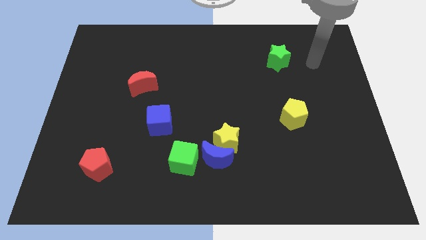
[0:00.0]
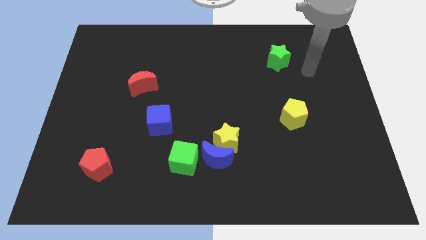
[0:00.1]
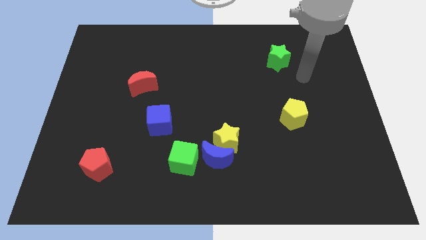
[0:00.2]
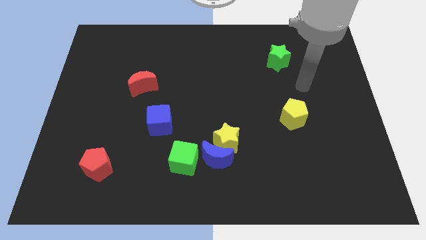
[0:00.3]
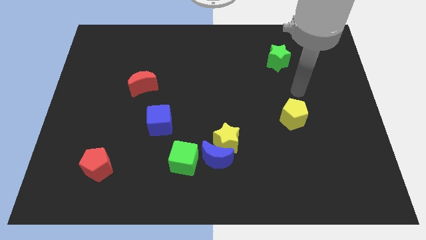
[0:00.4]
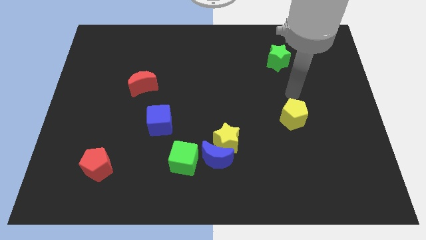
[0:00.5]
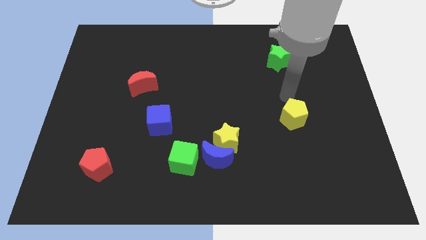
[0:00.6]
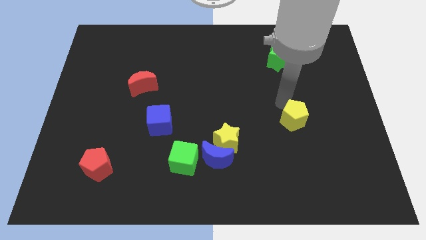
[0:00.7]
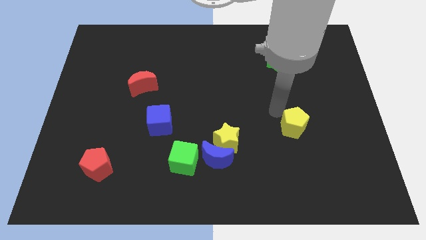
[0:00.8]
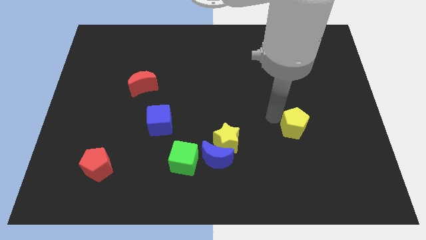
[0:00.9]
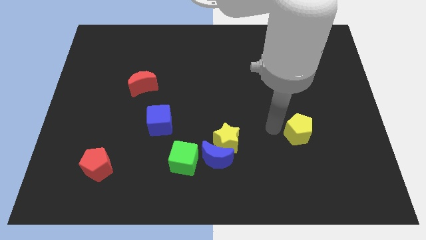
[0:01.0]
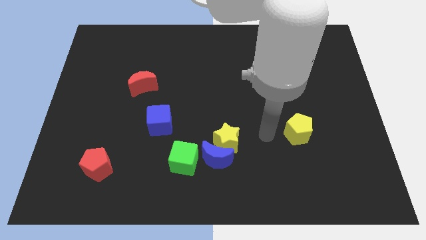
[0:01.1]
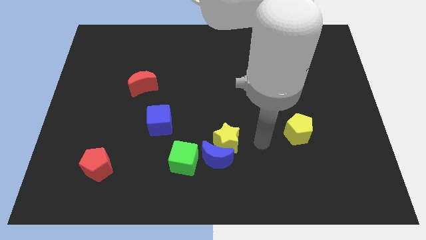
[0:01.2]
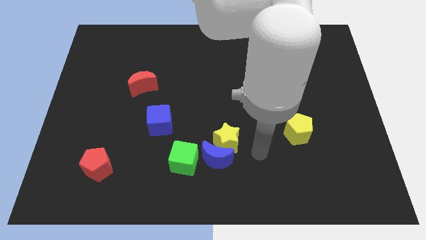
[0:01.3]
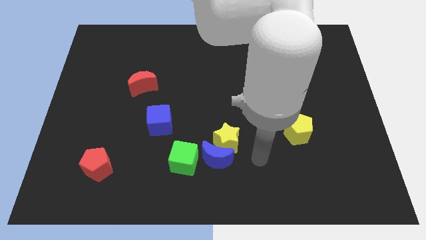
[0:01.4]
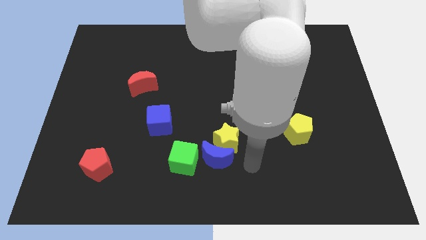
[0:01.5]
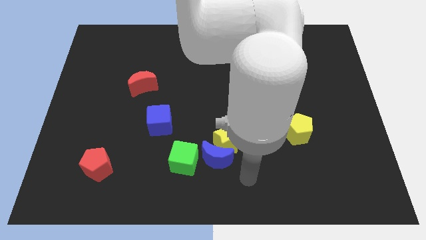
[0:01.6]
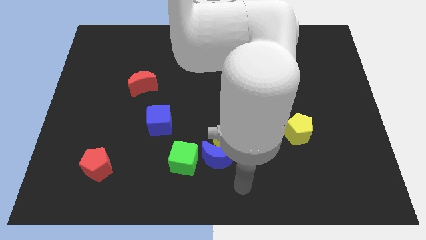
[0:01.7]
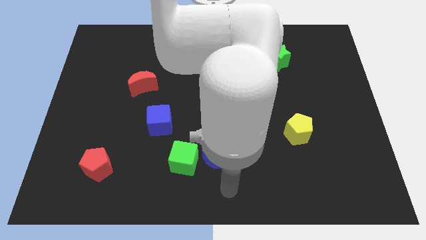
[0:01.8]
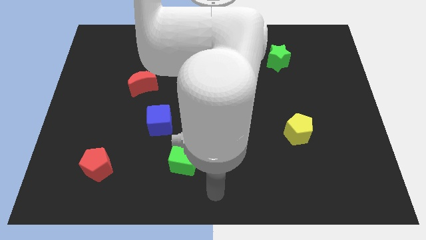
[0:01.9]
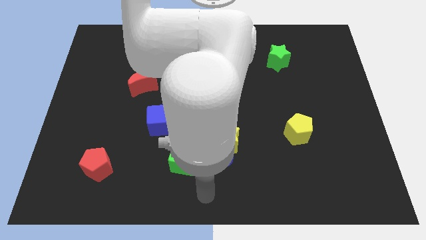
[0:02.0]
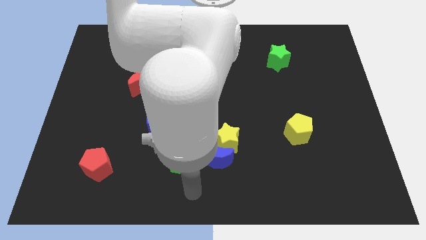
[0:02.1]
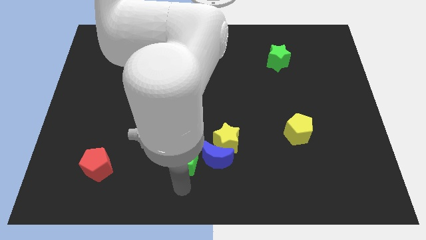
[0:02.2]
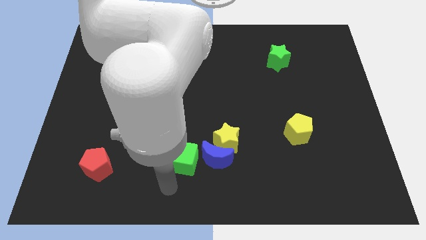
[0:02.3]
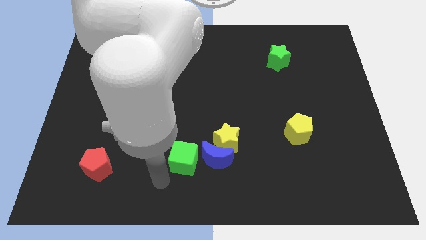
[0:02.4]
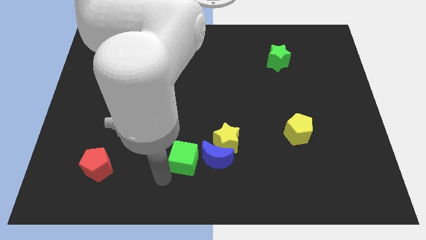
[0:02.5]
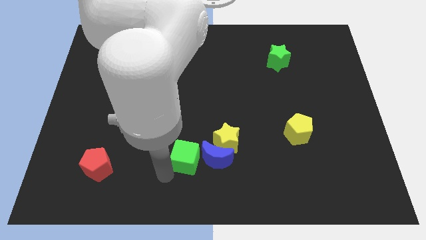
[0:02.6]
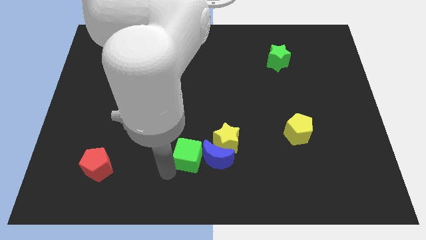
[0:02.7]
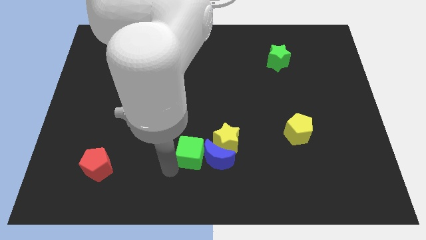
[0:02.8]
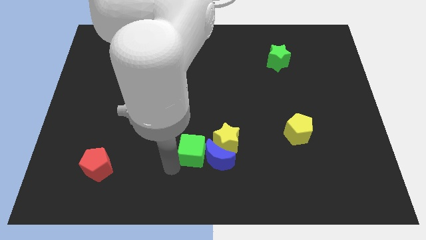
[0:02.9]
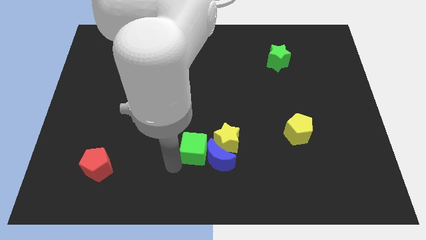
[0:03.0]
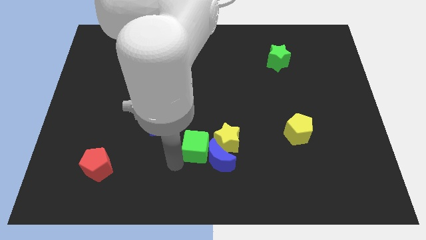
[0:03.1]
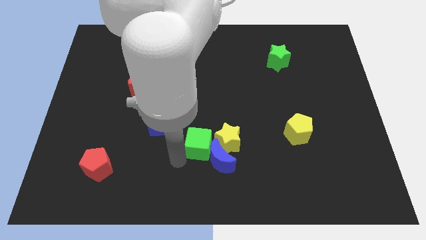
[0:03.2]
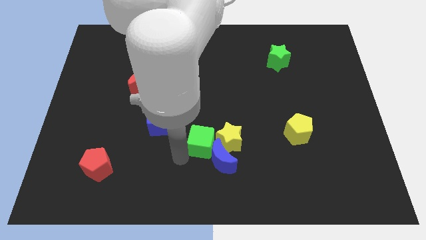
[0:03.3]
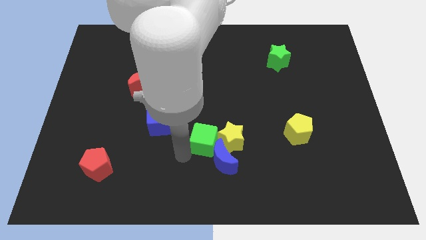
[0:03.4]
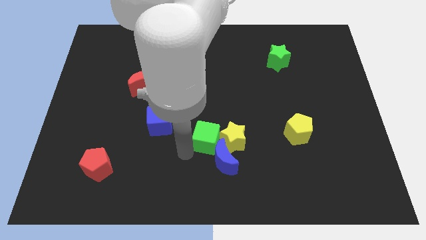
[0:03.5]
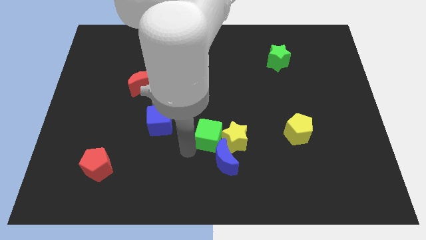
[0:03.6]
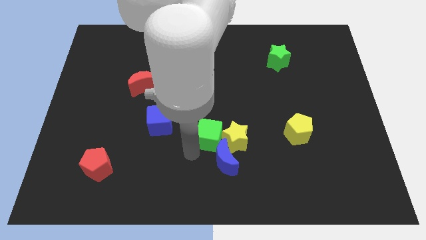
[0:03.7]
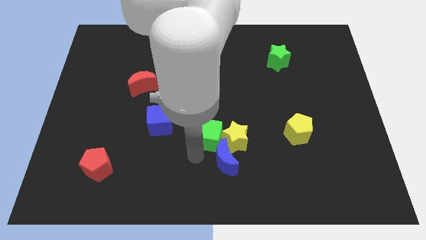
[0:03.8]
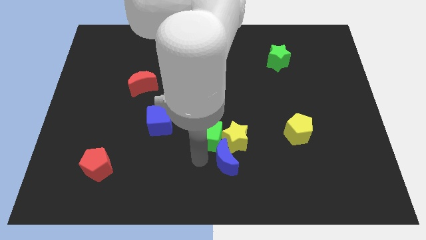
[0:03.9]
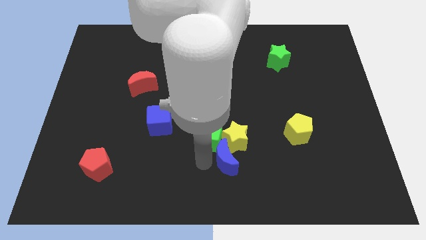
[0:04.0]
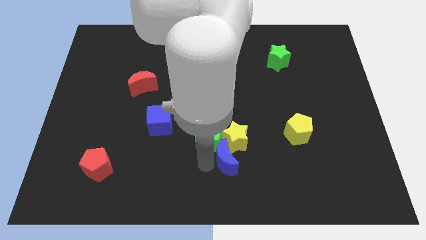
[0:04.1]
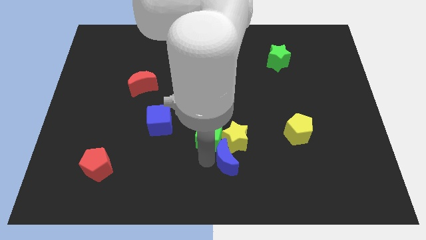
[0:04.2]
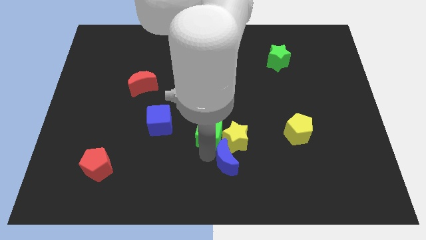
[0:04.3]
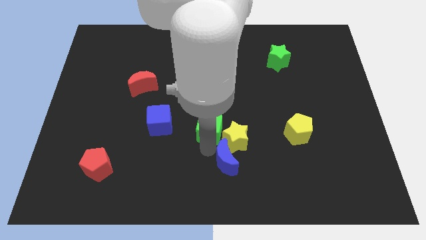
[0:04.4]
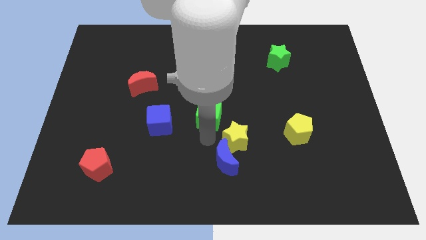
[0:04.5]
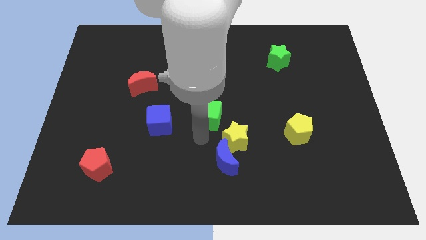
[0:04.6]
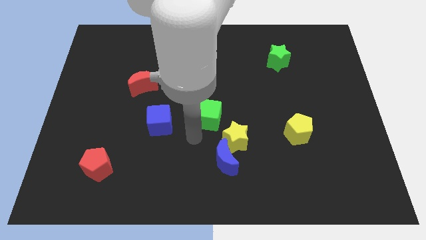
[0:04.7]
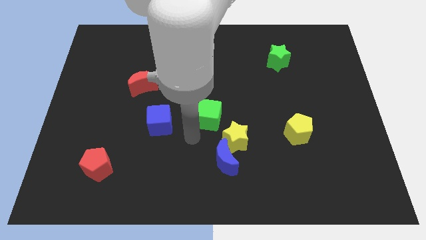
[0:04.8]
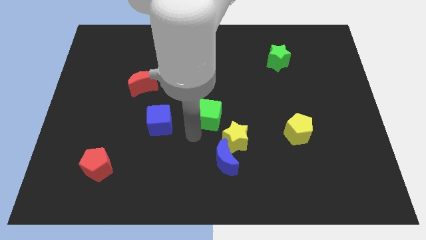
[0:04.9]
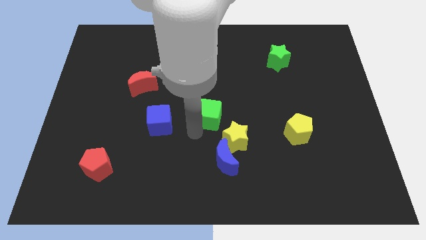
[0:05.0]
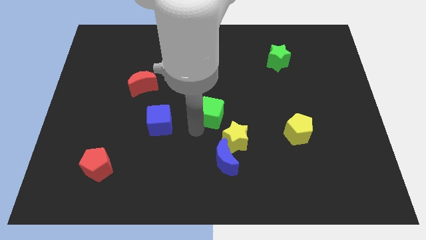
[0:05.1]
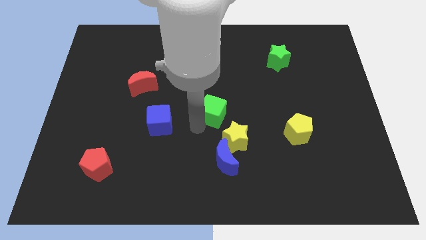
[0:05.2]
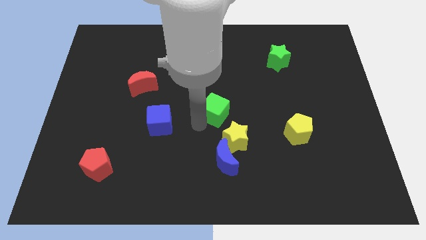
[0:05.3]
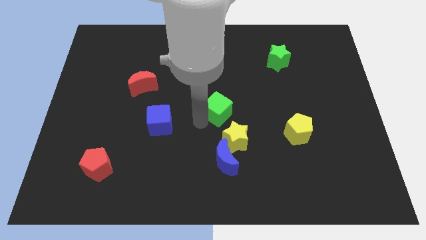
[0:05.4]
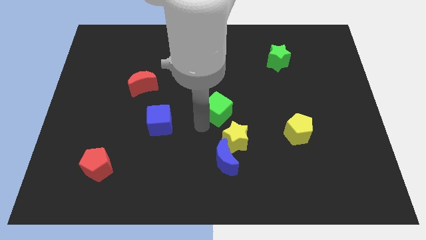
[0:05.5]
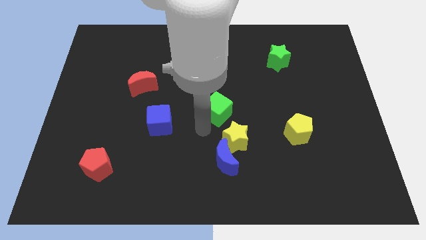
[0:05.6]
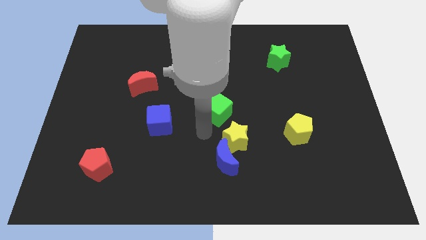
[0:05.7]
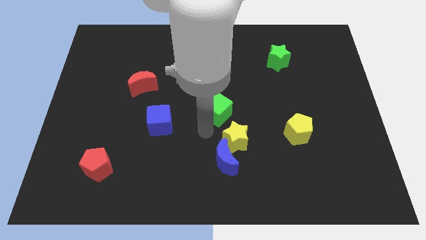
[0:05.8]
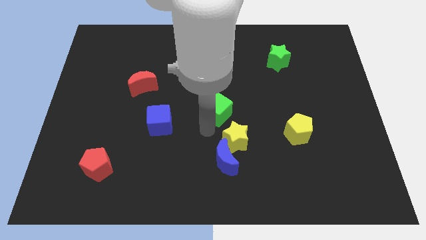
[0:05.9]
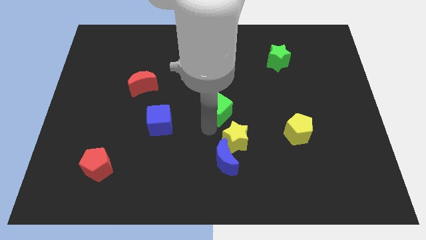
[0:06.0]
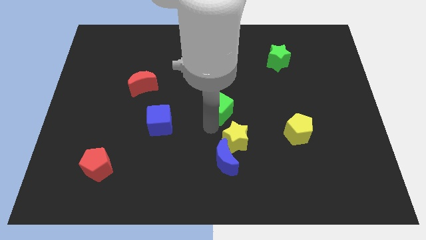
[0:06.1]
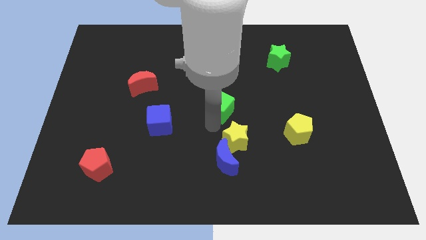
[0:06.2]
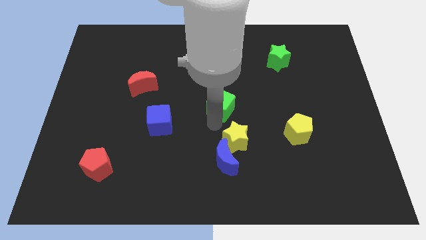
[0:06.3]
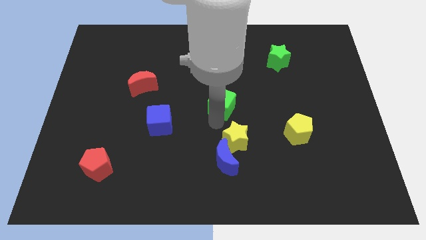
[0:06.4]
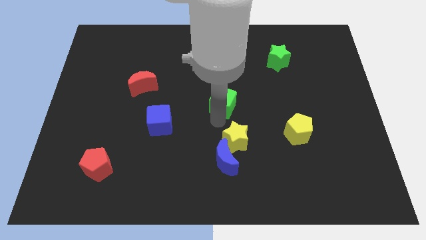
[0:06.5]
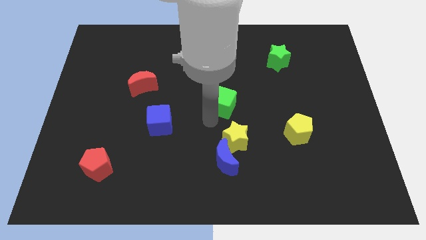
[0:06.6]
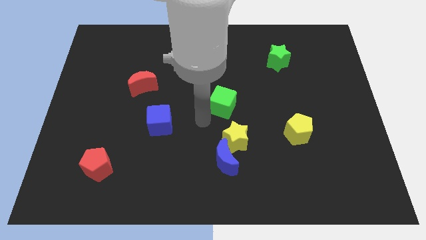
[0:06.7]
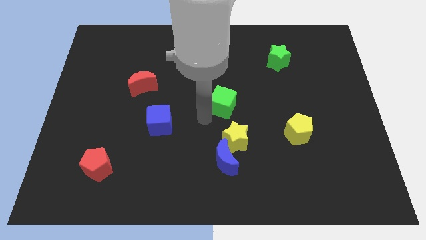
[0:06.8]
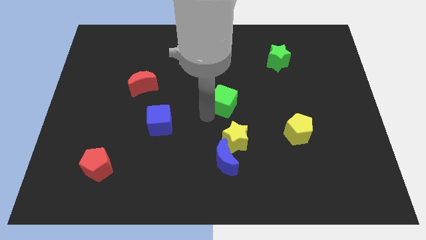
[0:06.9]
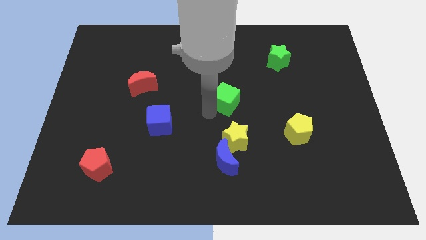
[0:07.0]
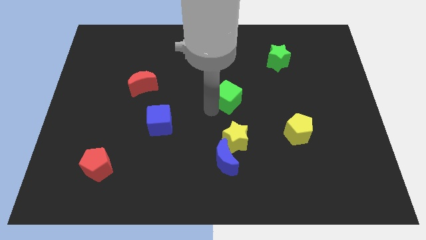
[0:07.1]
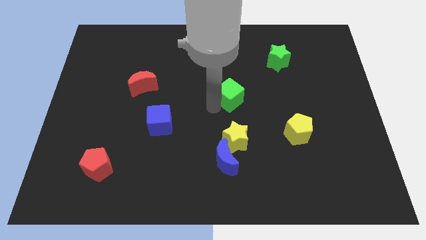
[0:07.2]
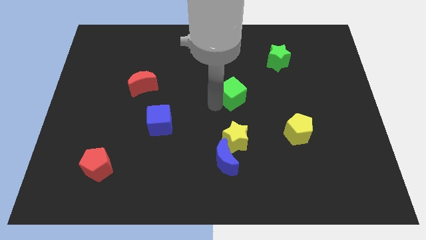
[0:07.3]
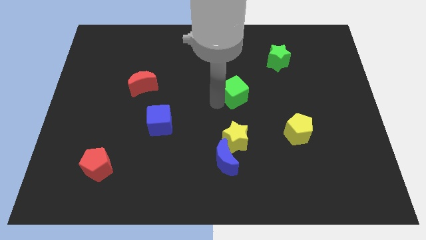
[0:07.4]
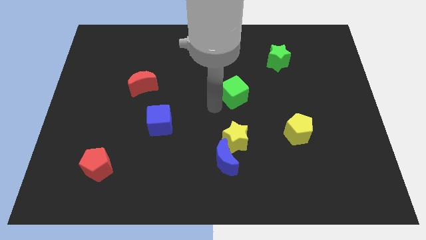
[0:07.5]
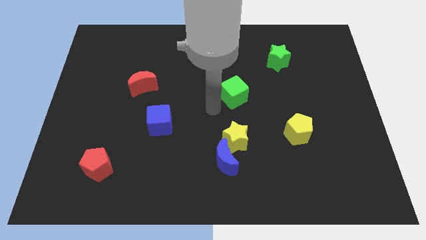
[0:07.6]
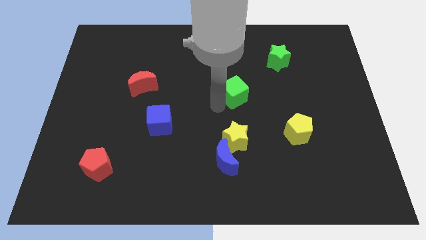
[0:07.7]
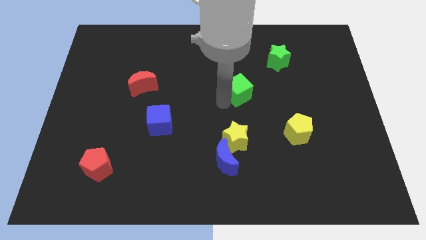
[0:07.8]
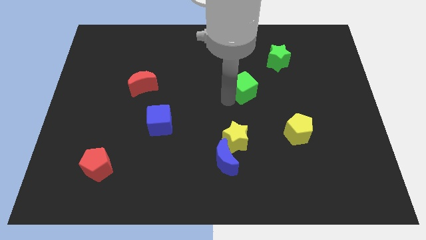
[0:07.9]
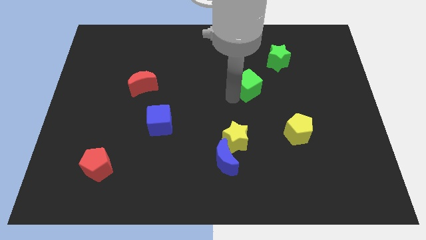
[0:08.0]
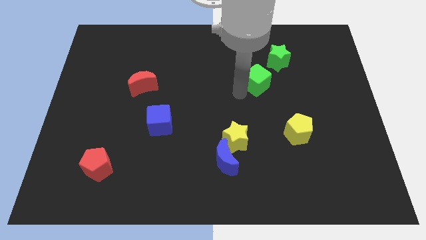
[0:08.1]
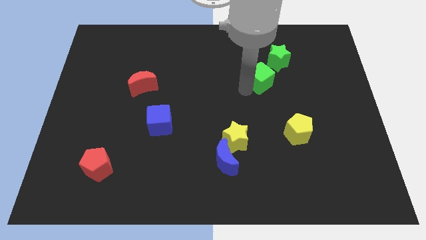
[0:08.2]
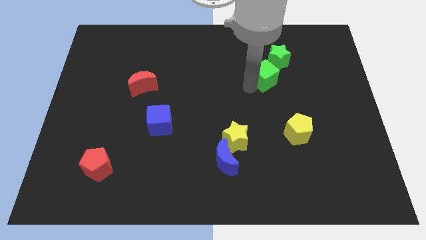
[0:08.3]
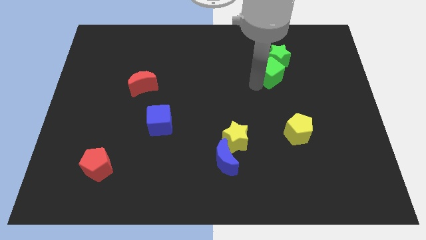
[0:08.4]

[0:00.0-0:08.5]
move the green cube towards the green star
